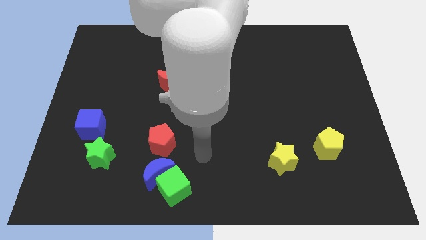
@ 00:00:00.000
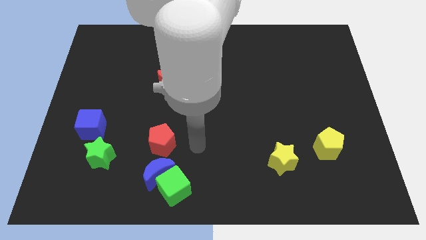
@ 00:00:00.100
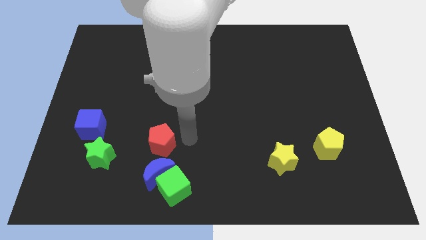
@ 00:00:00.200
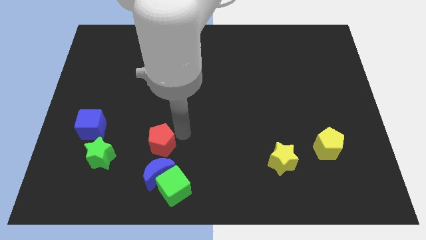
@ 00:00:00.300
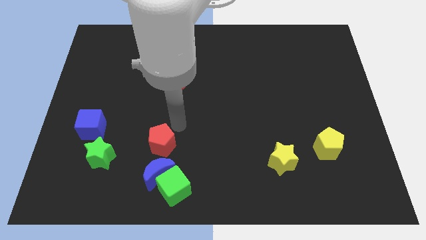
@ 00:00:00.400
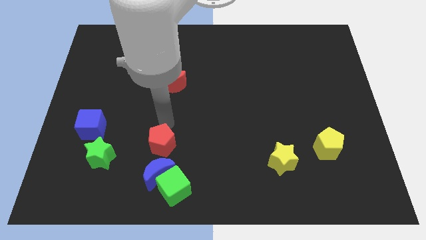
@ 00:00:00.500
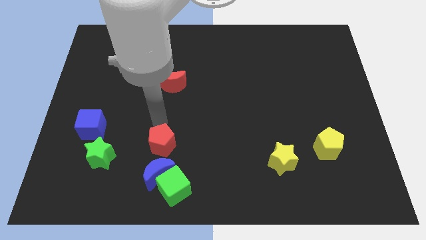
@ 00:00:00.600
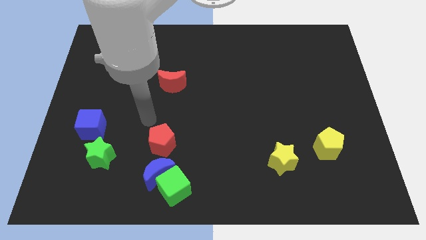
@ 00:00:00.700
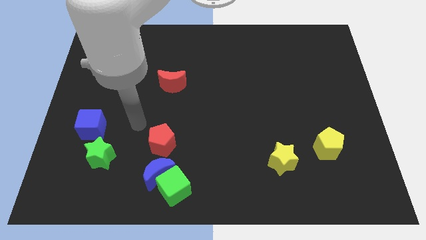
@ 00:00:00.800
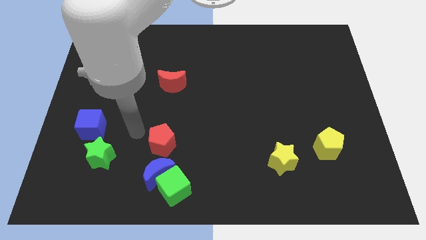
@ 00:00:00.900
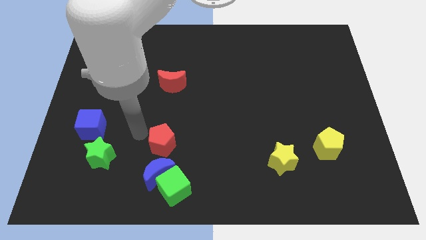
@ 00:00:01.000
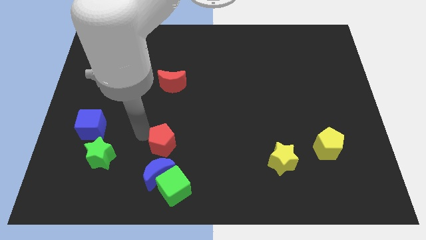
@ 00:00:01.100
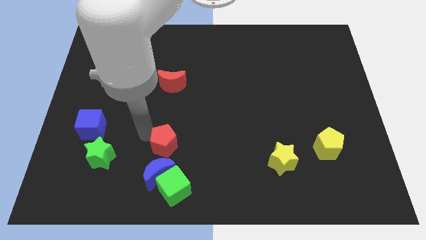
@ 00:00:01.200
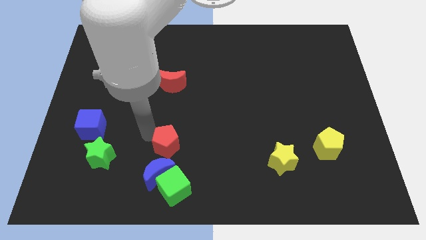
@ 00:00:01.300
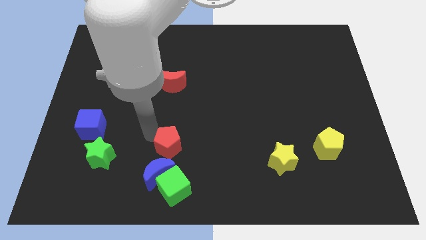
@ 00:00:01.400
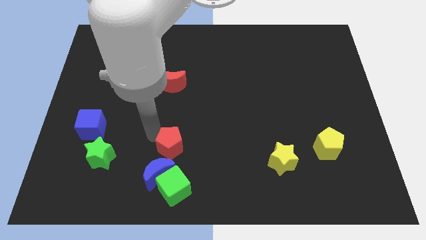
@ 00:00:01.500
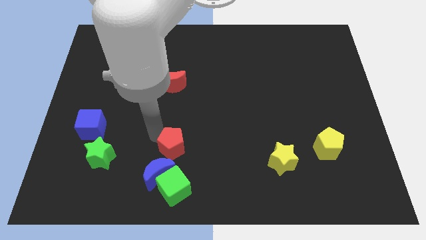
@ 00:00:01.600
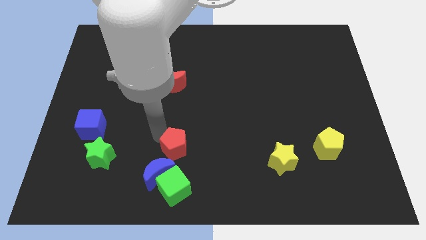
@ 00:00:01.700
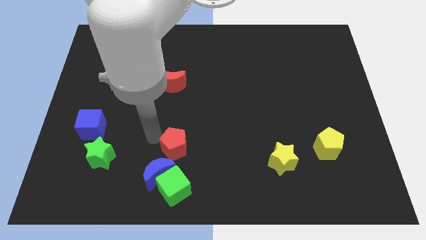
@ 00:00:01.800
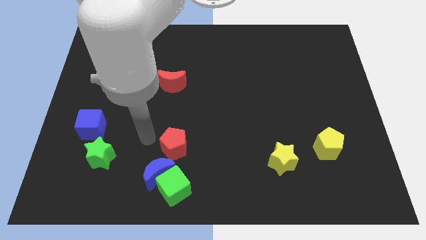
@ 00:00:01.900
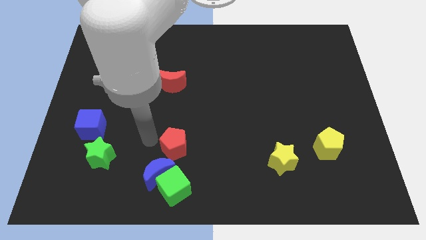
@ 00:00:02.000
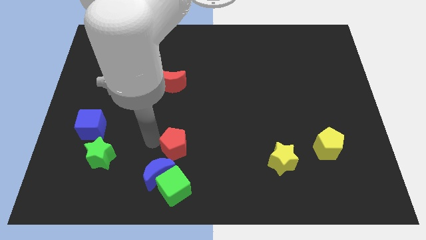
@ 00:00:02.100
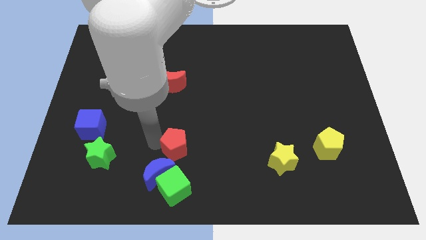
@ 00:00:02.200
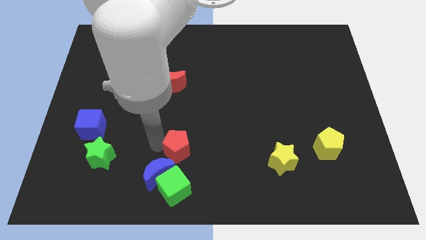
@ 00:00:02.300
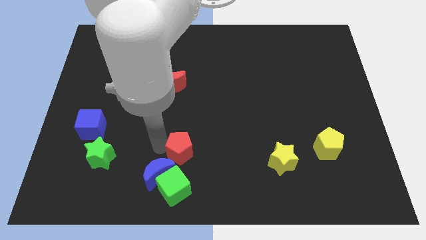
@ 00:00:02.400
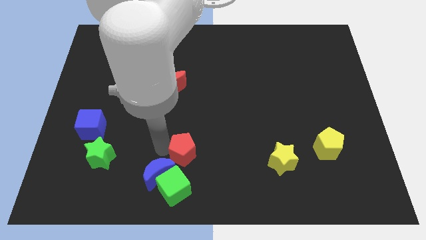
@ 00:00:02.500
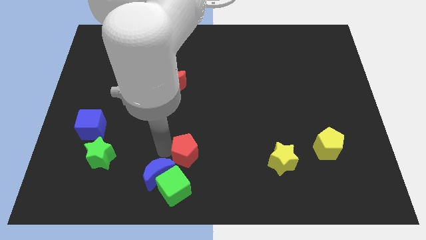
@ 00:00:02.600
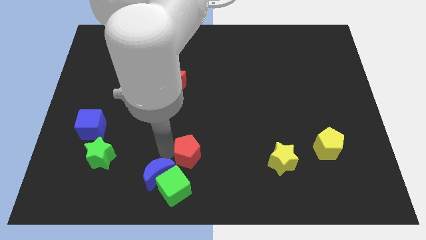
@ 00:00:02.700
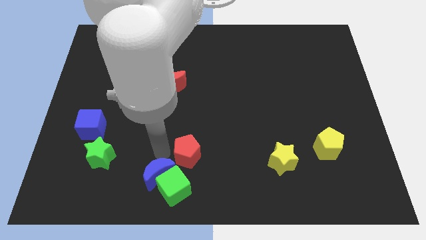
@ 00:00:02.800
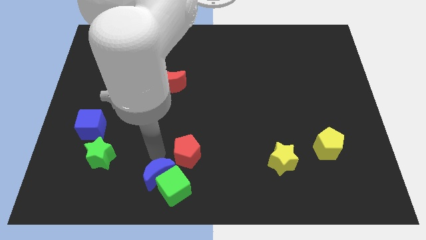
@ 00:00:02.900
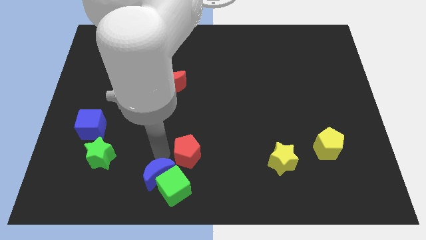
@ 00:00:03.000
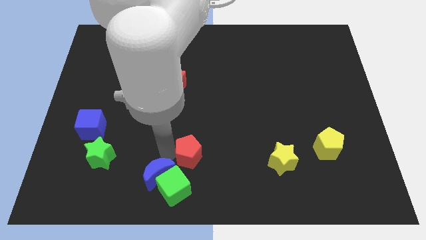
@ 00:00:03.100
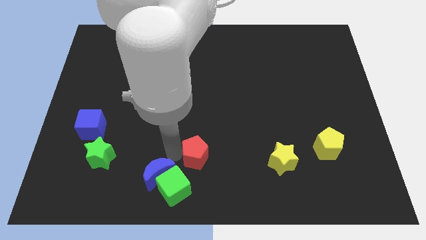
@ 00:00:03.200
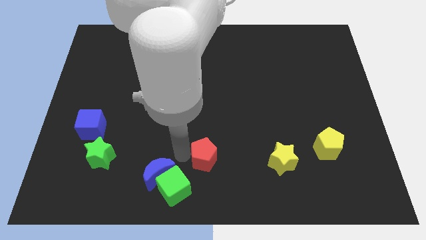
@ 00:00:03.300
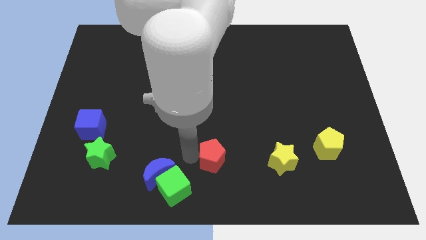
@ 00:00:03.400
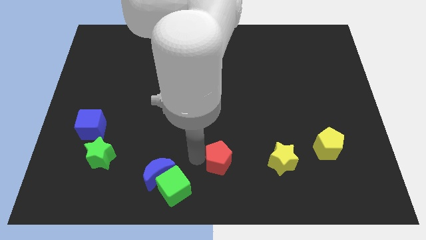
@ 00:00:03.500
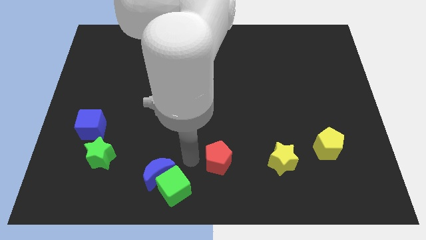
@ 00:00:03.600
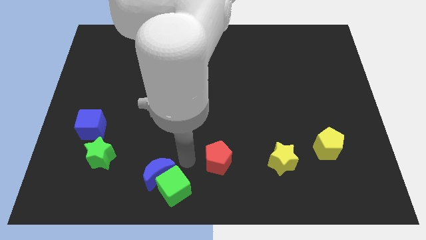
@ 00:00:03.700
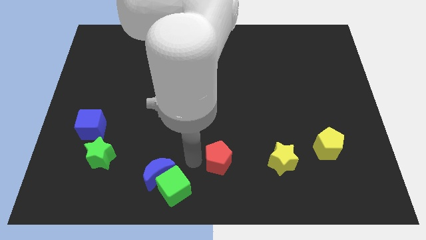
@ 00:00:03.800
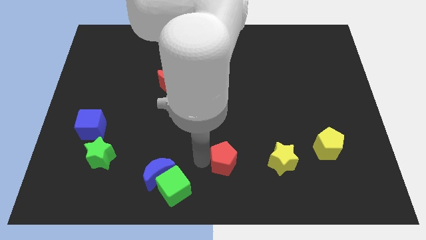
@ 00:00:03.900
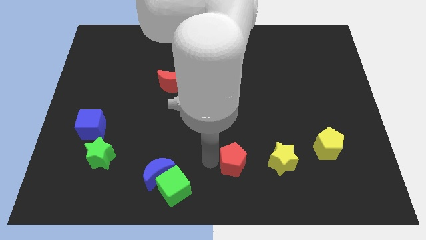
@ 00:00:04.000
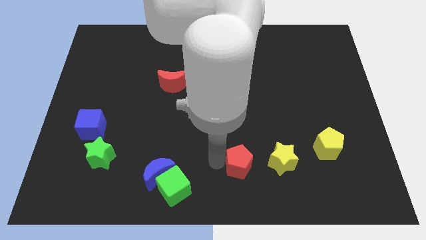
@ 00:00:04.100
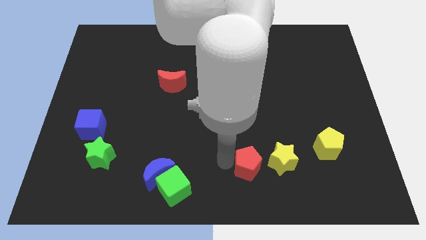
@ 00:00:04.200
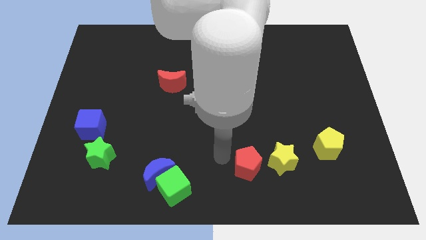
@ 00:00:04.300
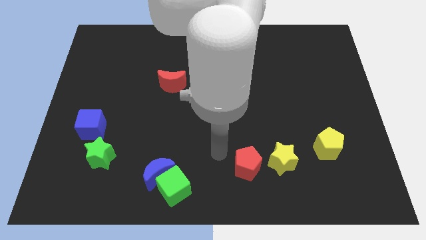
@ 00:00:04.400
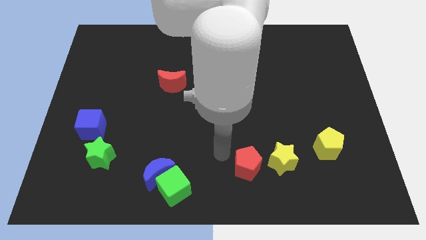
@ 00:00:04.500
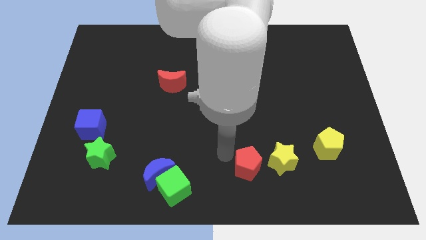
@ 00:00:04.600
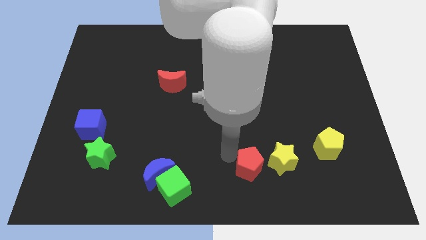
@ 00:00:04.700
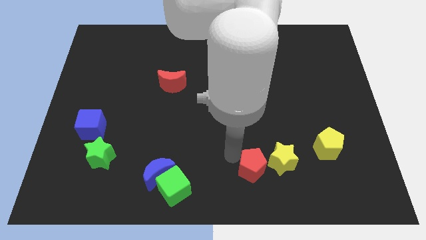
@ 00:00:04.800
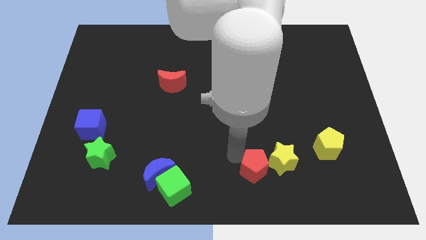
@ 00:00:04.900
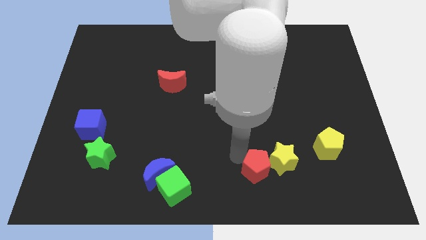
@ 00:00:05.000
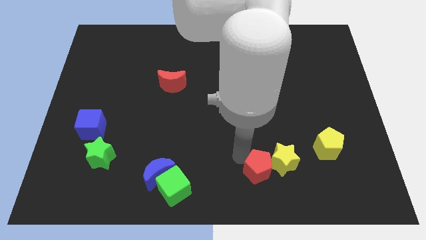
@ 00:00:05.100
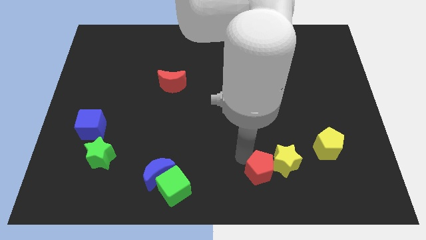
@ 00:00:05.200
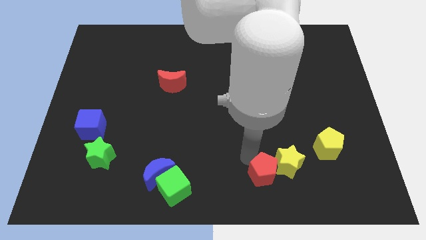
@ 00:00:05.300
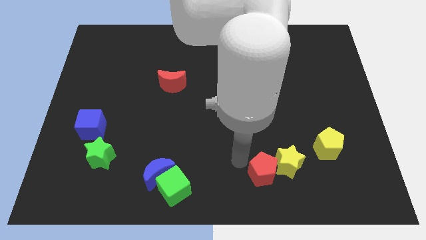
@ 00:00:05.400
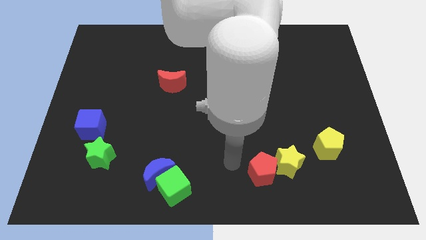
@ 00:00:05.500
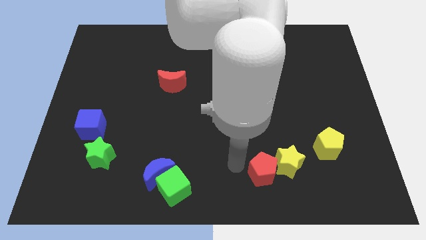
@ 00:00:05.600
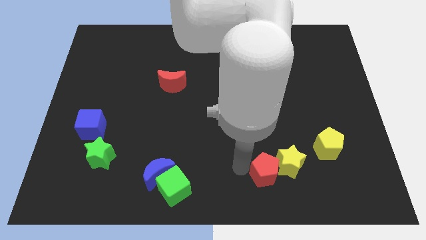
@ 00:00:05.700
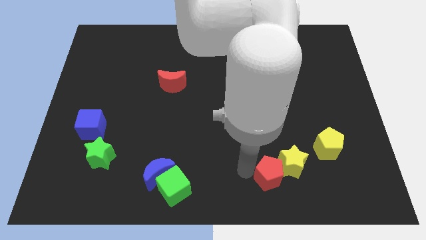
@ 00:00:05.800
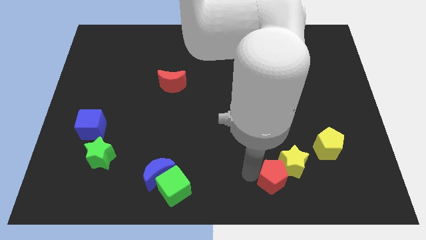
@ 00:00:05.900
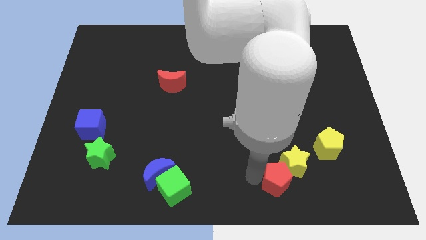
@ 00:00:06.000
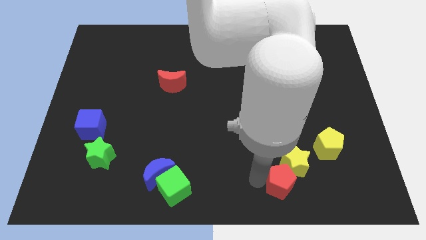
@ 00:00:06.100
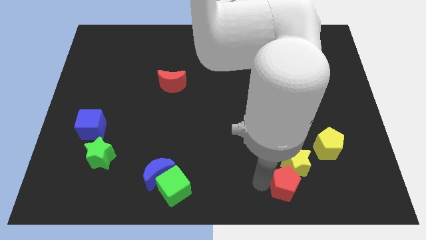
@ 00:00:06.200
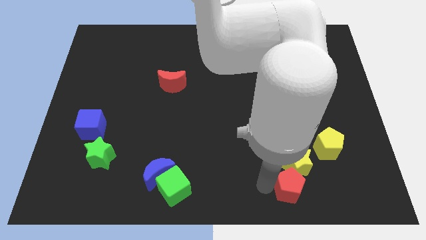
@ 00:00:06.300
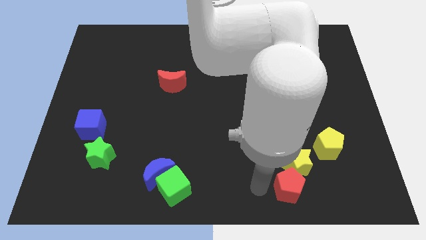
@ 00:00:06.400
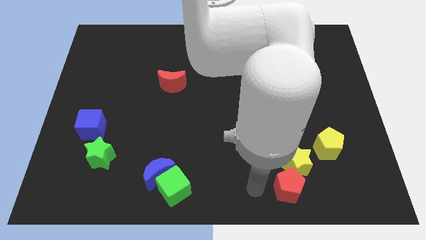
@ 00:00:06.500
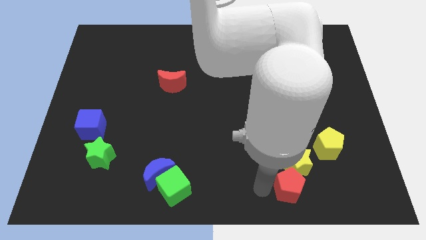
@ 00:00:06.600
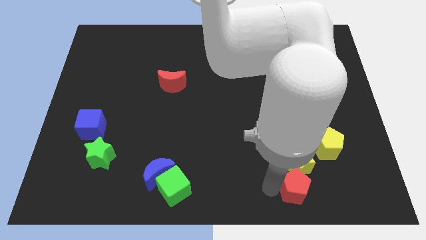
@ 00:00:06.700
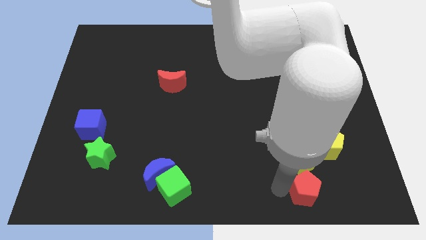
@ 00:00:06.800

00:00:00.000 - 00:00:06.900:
slide the red pentagon to the bottom right of the yellow star

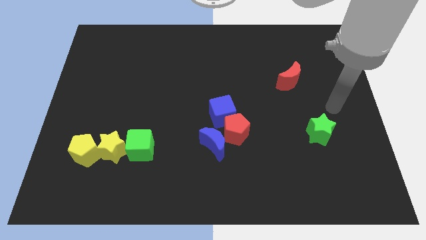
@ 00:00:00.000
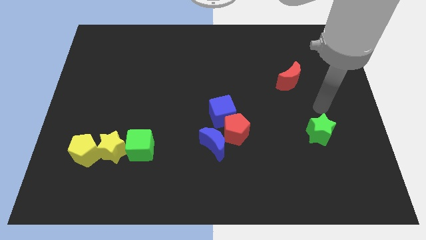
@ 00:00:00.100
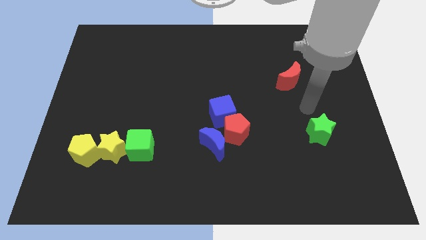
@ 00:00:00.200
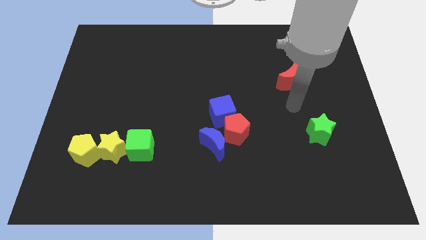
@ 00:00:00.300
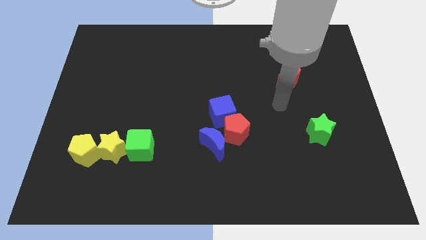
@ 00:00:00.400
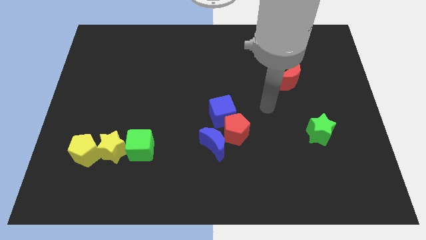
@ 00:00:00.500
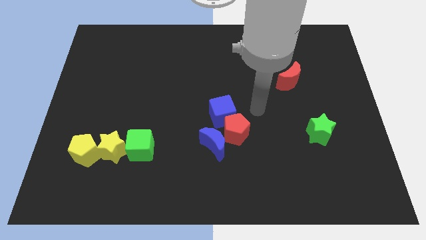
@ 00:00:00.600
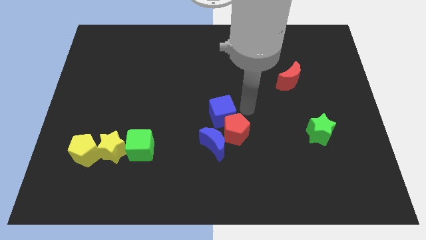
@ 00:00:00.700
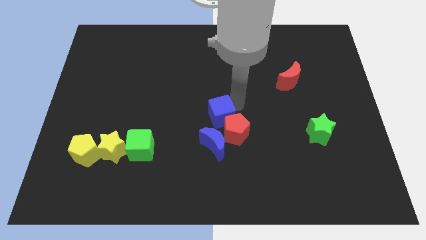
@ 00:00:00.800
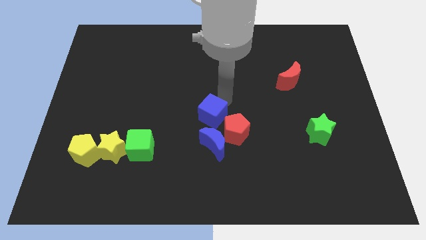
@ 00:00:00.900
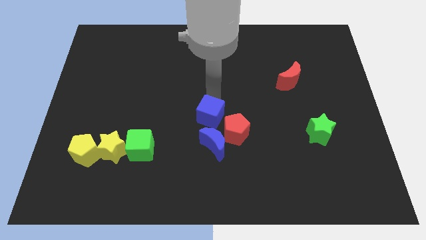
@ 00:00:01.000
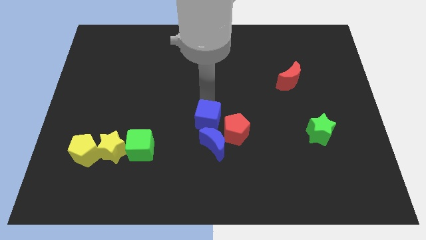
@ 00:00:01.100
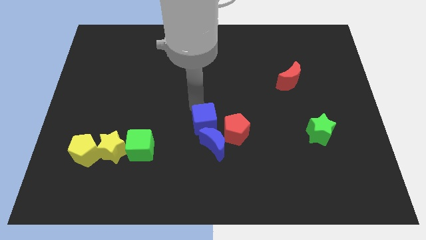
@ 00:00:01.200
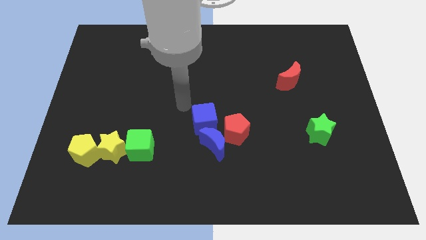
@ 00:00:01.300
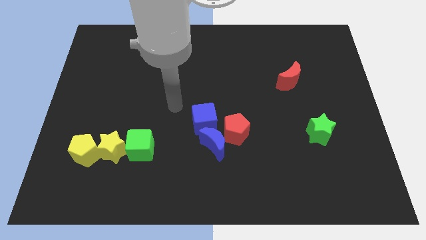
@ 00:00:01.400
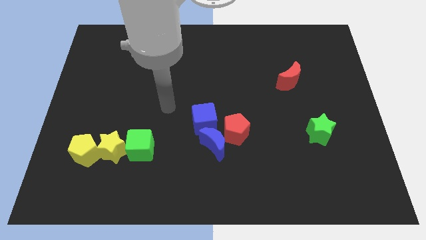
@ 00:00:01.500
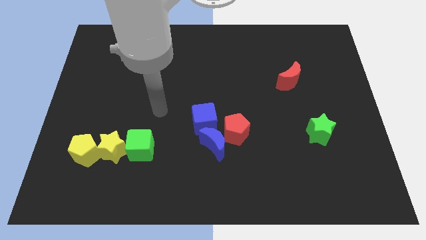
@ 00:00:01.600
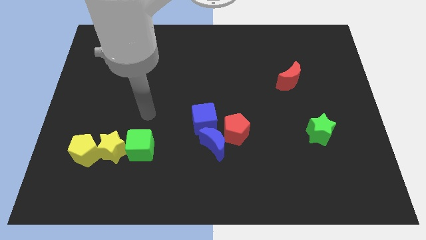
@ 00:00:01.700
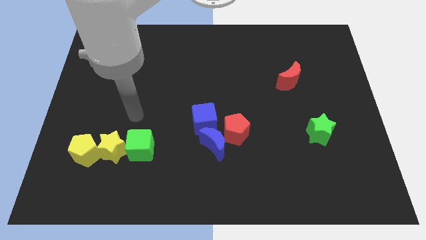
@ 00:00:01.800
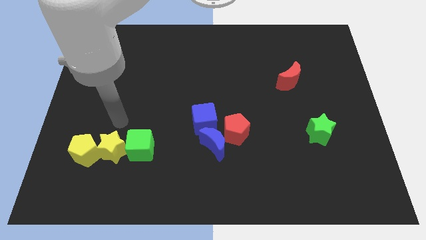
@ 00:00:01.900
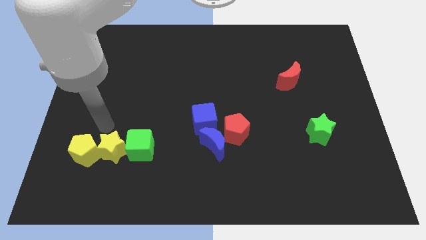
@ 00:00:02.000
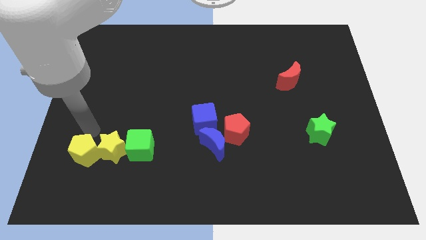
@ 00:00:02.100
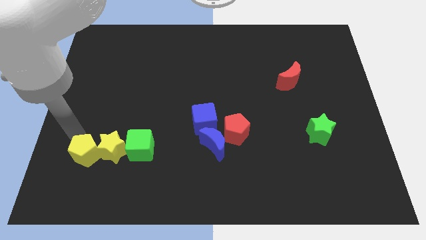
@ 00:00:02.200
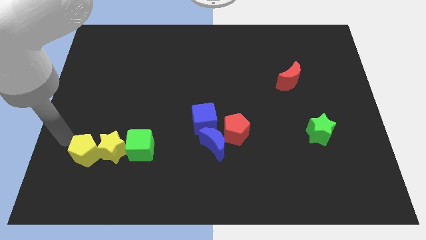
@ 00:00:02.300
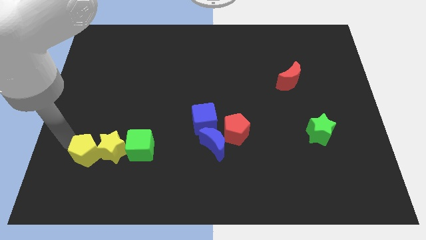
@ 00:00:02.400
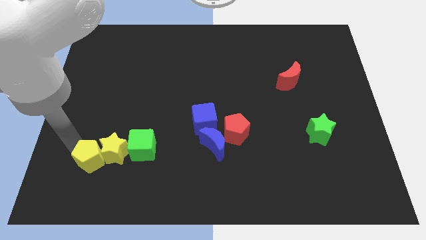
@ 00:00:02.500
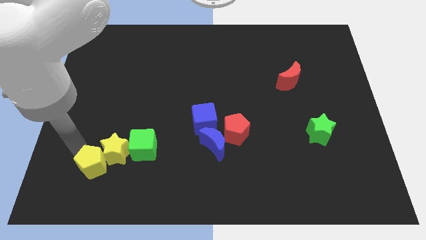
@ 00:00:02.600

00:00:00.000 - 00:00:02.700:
move the yellow pentagon diagonally down and to the left of the green cube
